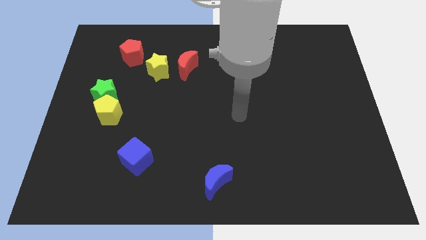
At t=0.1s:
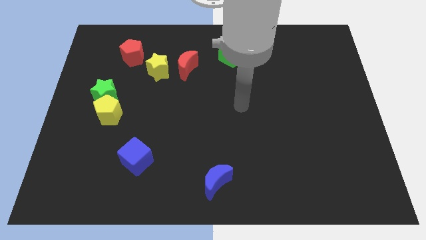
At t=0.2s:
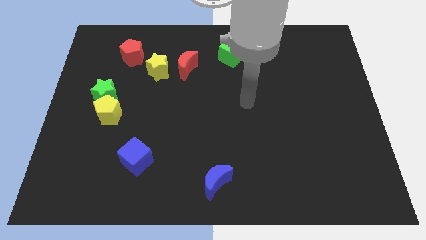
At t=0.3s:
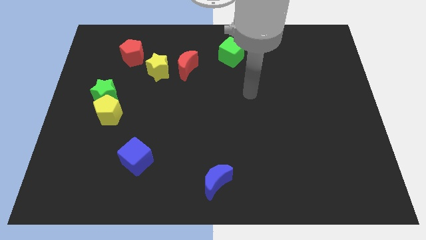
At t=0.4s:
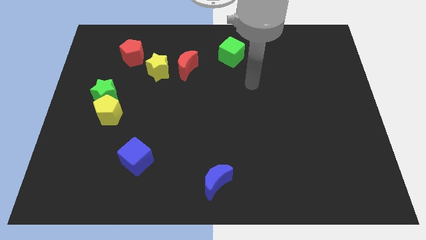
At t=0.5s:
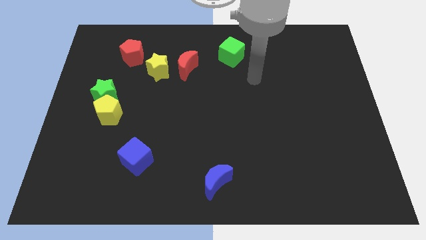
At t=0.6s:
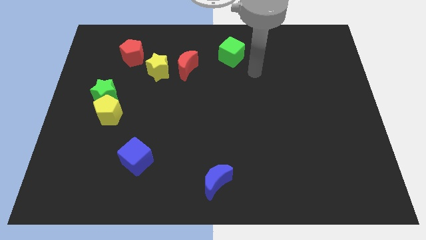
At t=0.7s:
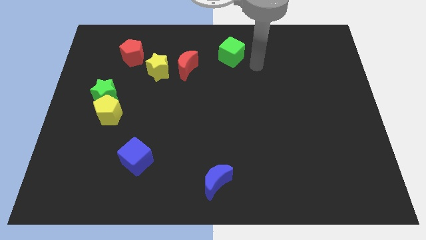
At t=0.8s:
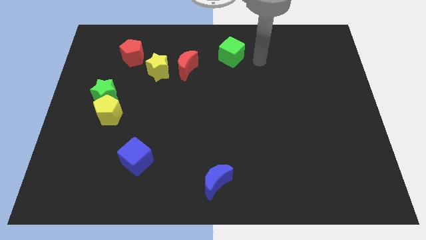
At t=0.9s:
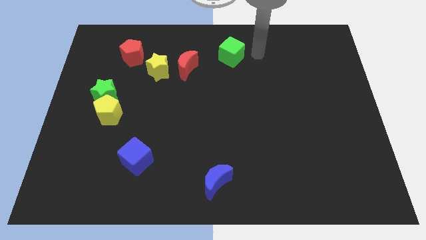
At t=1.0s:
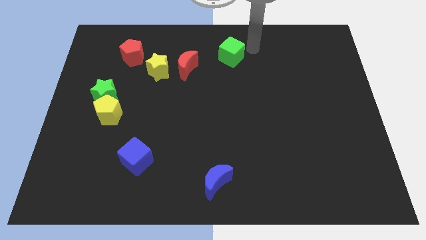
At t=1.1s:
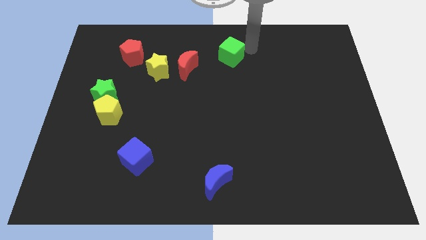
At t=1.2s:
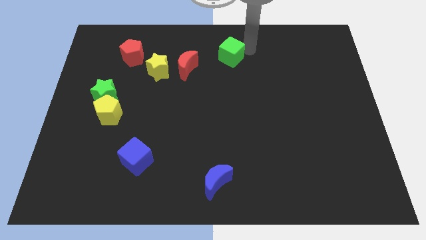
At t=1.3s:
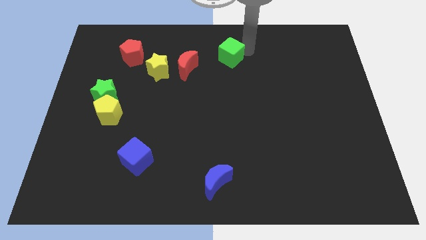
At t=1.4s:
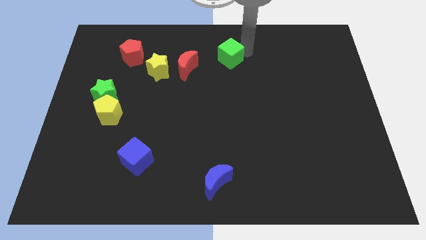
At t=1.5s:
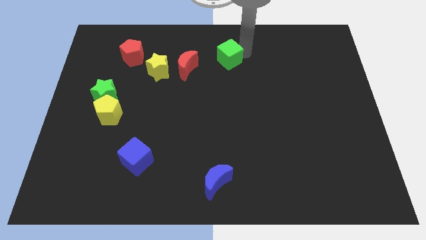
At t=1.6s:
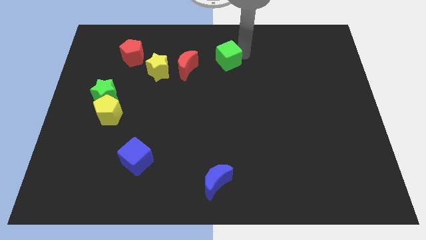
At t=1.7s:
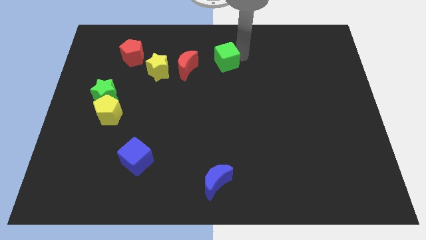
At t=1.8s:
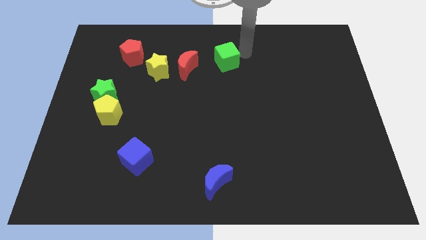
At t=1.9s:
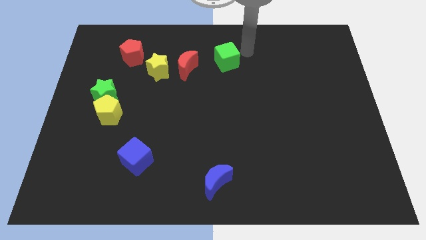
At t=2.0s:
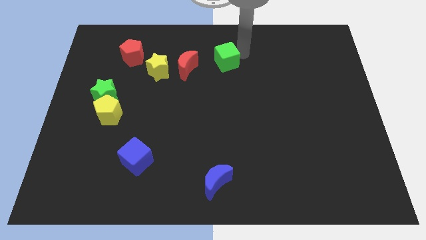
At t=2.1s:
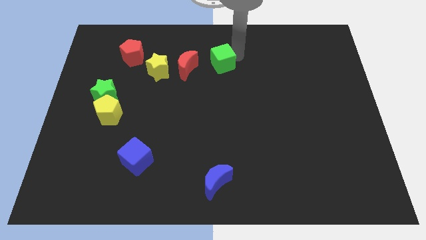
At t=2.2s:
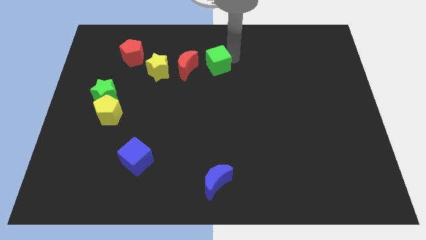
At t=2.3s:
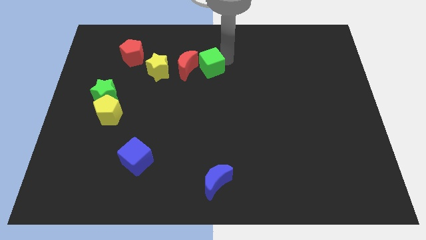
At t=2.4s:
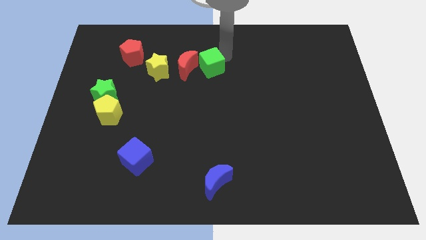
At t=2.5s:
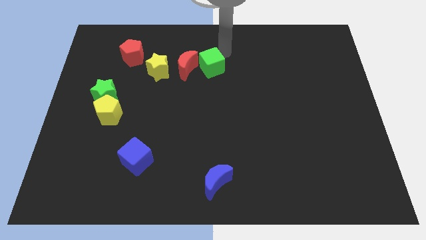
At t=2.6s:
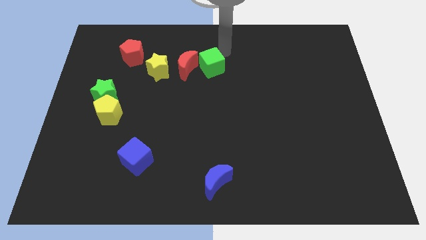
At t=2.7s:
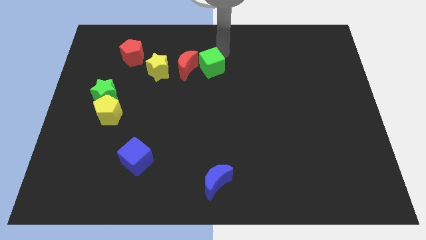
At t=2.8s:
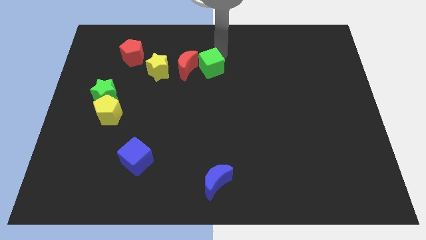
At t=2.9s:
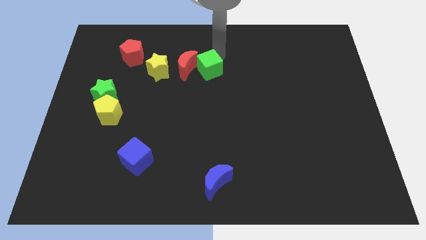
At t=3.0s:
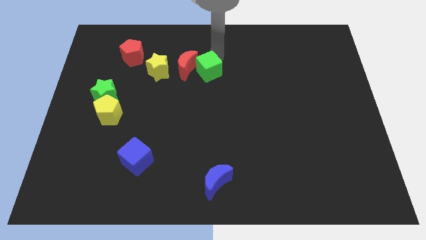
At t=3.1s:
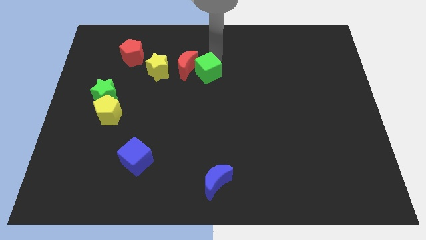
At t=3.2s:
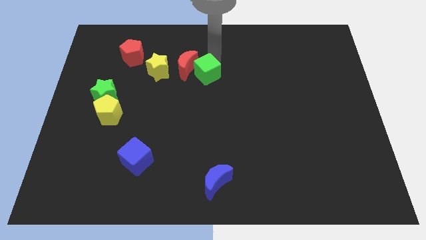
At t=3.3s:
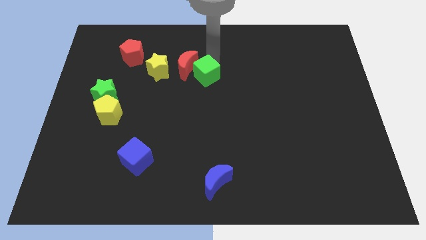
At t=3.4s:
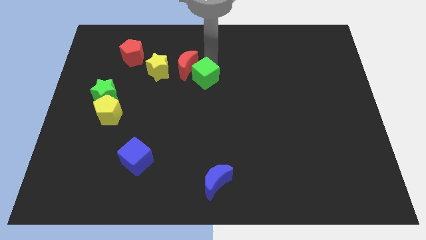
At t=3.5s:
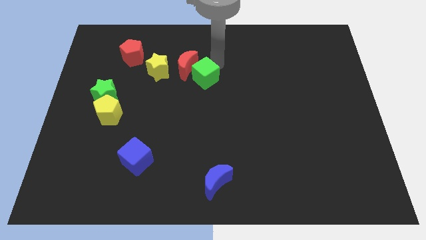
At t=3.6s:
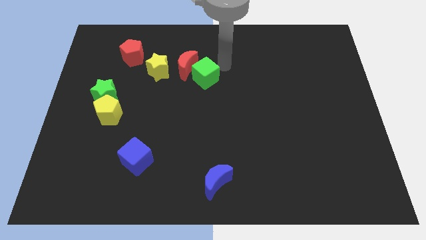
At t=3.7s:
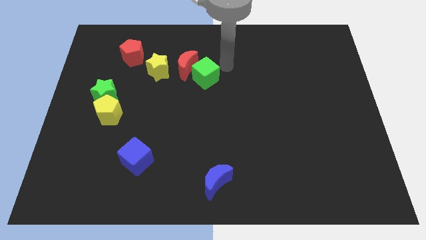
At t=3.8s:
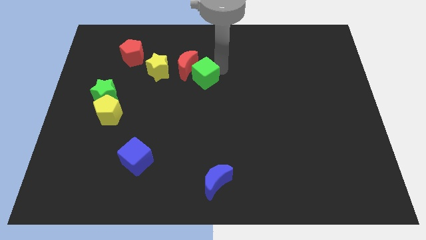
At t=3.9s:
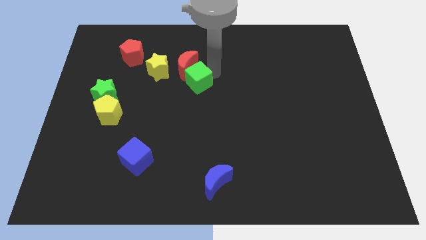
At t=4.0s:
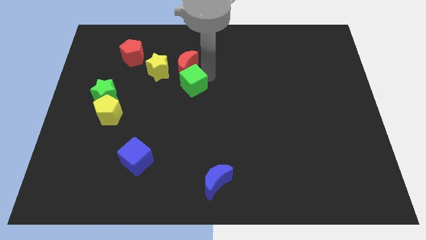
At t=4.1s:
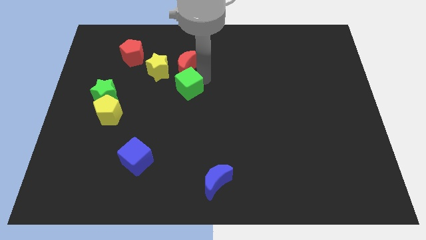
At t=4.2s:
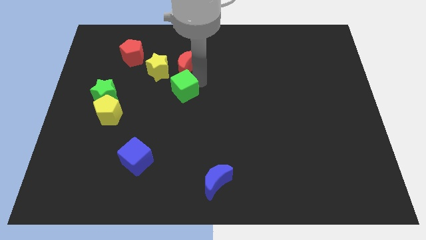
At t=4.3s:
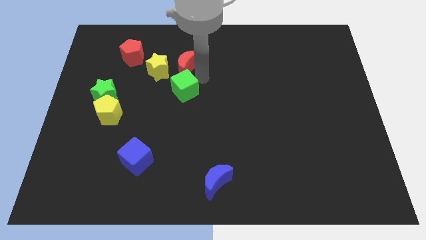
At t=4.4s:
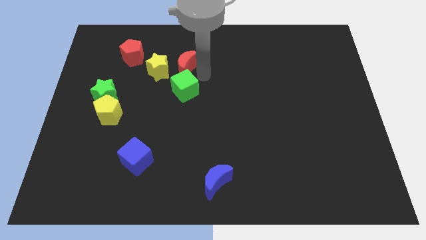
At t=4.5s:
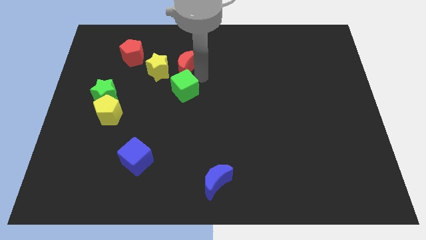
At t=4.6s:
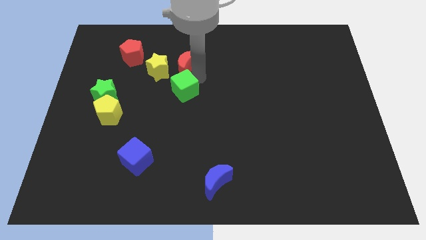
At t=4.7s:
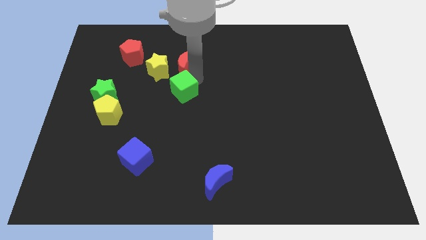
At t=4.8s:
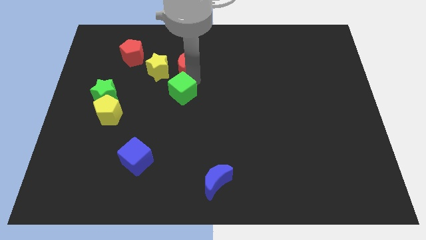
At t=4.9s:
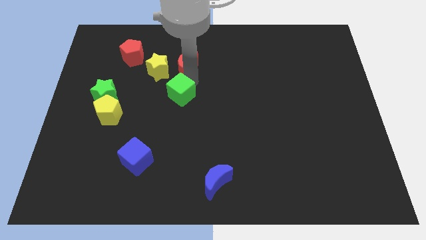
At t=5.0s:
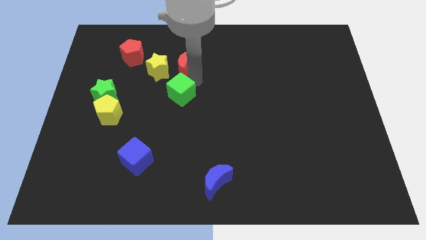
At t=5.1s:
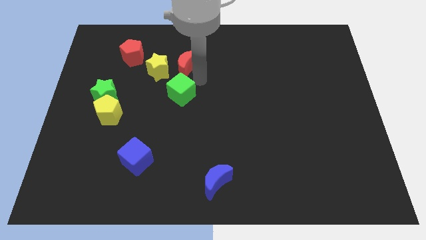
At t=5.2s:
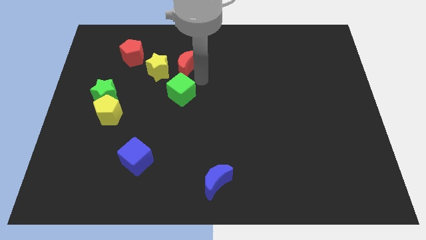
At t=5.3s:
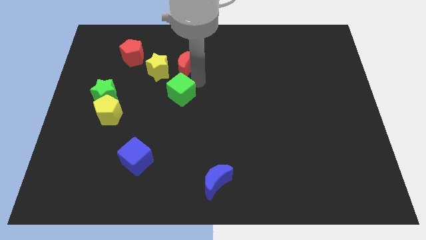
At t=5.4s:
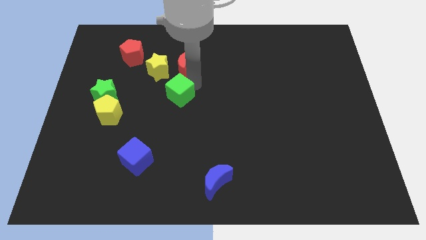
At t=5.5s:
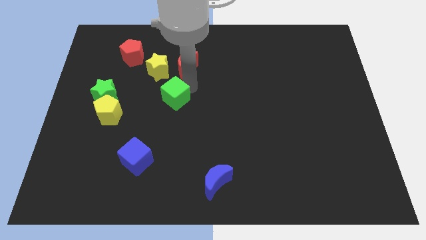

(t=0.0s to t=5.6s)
push the green cube down and left diagonally

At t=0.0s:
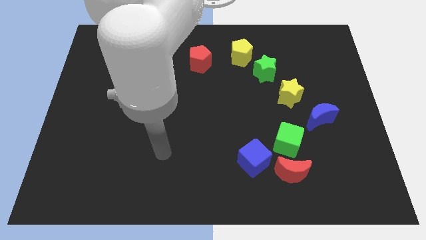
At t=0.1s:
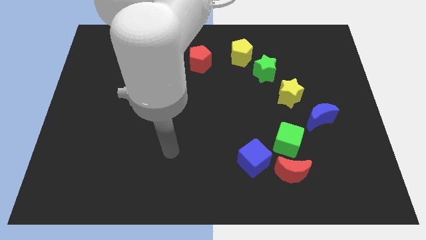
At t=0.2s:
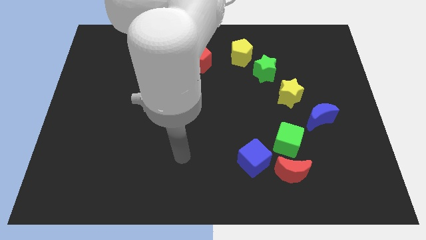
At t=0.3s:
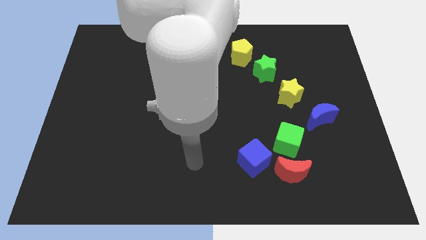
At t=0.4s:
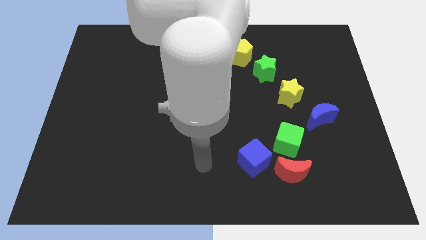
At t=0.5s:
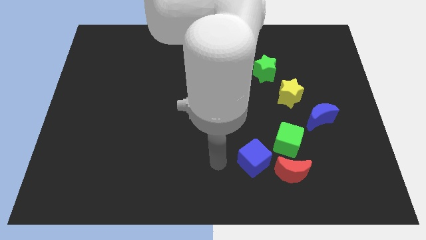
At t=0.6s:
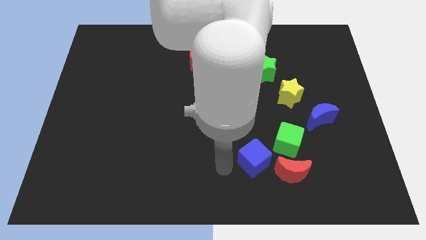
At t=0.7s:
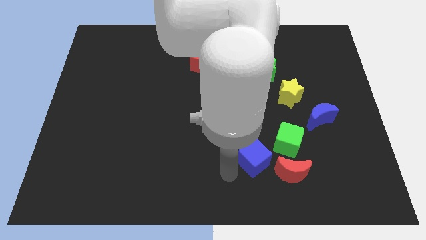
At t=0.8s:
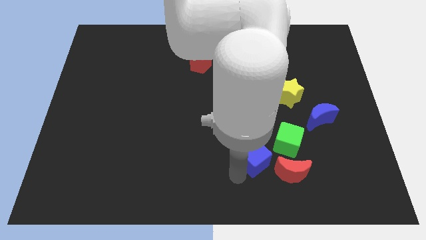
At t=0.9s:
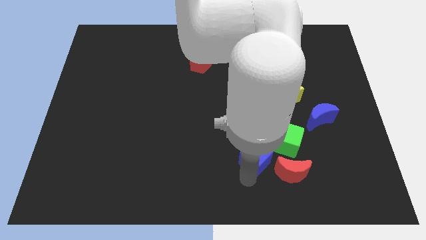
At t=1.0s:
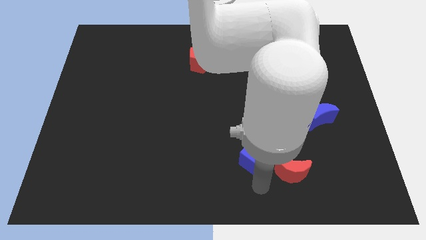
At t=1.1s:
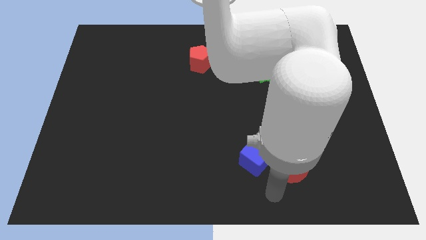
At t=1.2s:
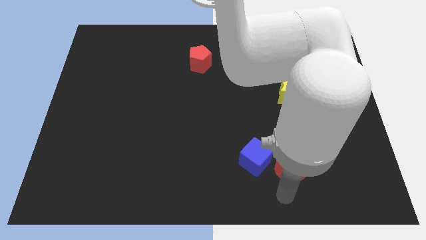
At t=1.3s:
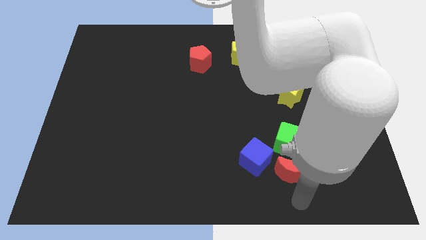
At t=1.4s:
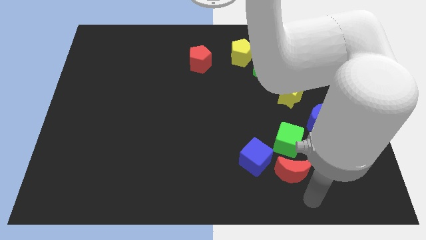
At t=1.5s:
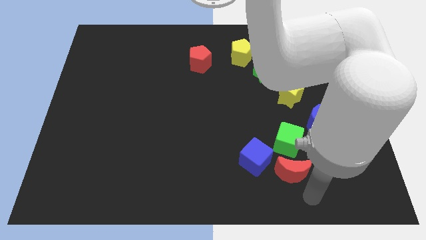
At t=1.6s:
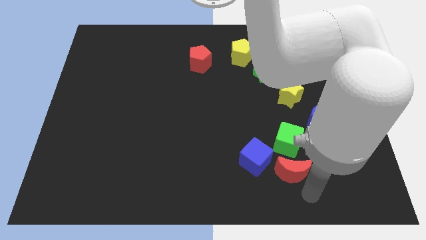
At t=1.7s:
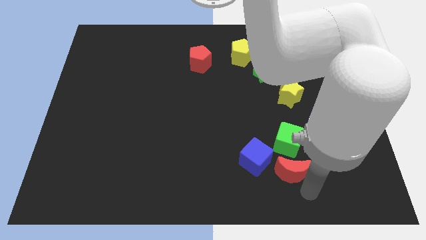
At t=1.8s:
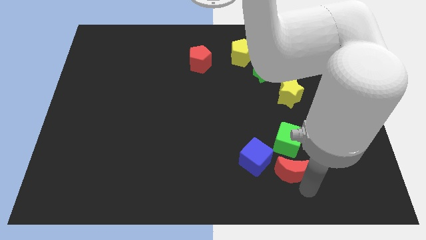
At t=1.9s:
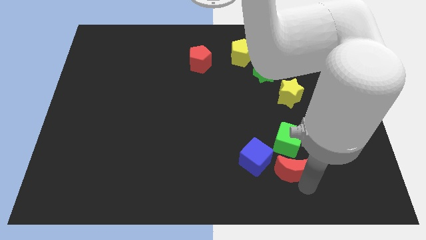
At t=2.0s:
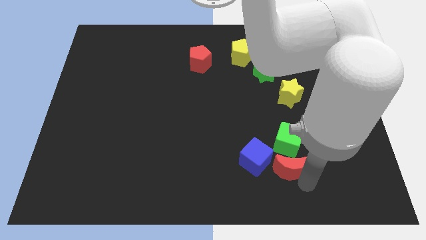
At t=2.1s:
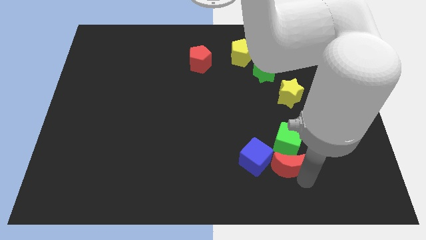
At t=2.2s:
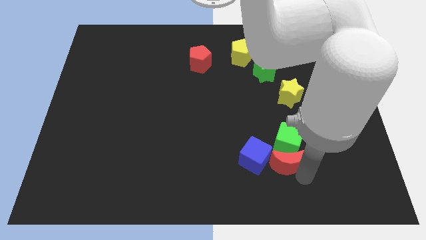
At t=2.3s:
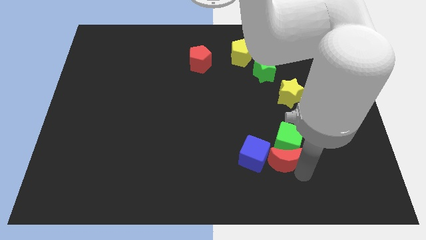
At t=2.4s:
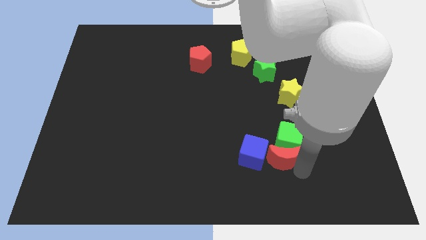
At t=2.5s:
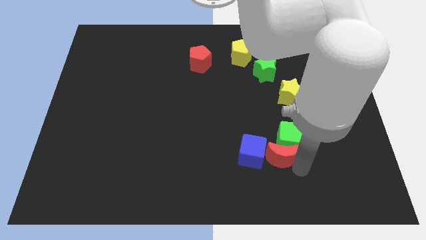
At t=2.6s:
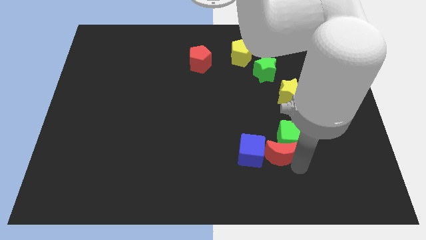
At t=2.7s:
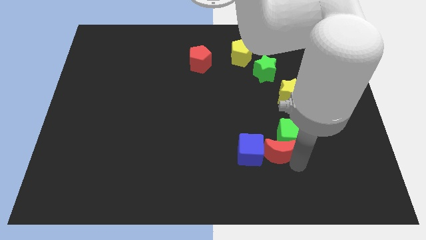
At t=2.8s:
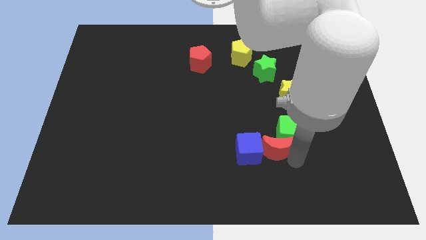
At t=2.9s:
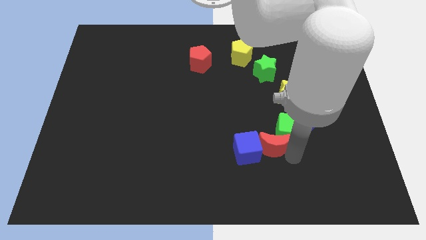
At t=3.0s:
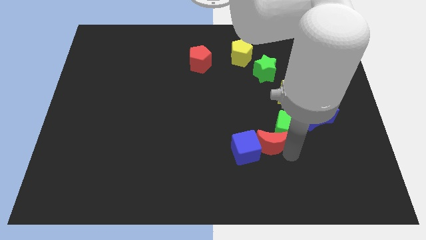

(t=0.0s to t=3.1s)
slide the red moon somewhat upwards and then to the left
